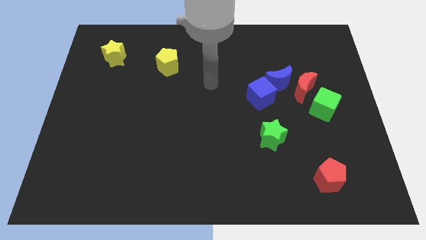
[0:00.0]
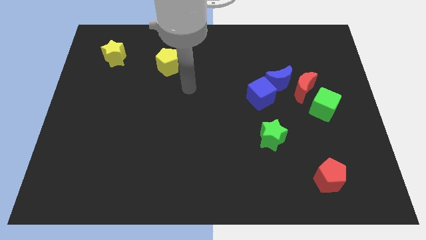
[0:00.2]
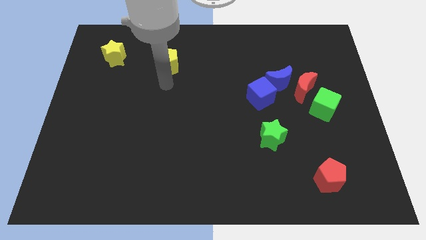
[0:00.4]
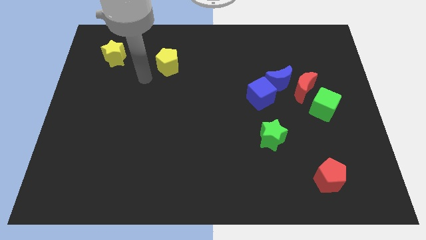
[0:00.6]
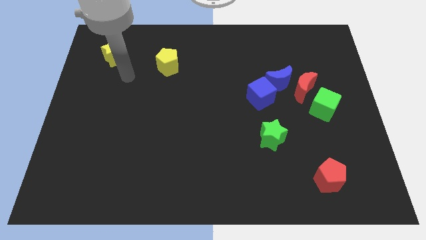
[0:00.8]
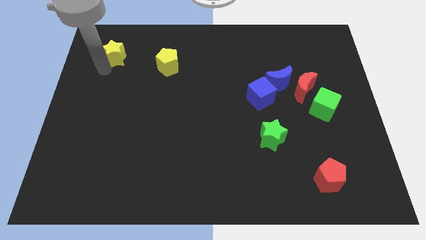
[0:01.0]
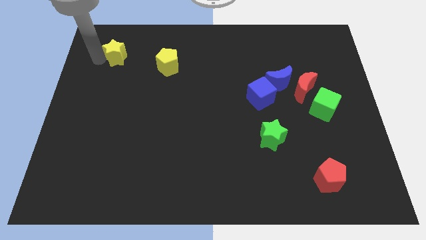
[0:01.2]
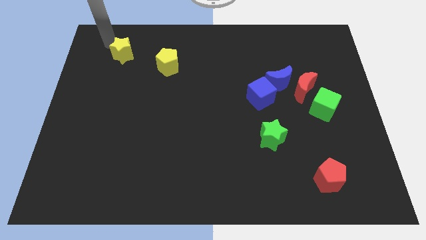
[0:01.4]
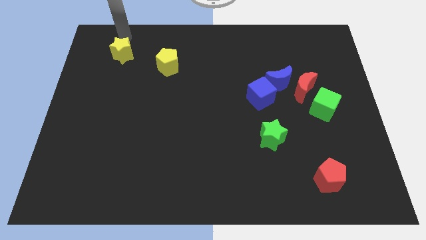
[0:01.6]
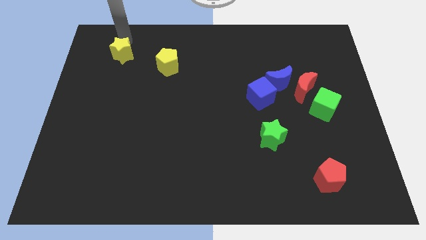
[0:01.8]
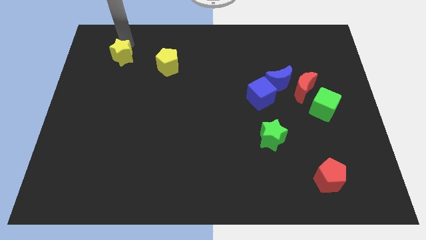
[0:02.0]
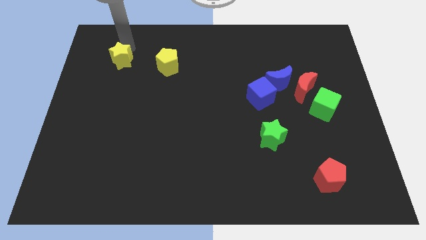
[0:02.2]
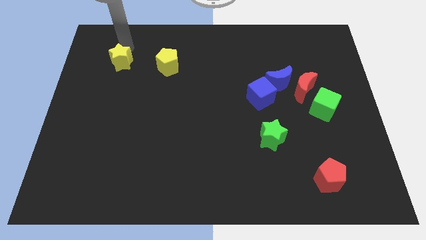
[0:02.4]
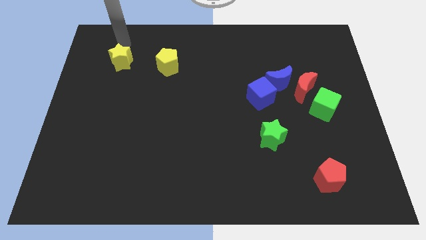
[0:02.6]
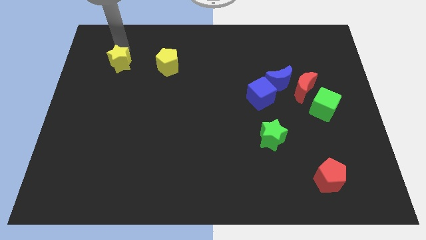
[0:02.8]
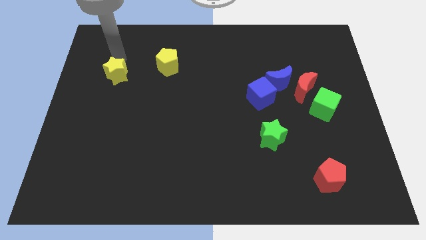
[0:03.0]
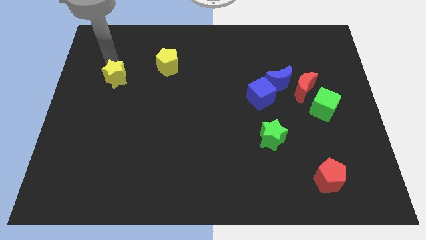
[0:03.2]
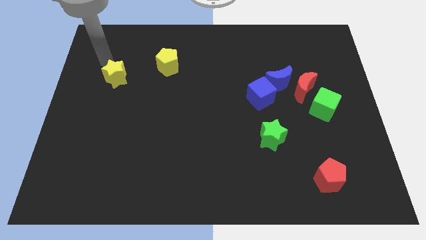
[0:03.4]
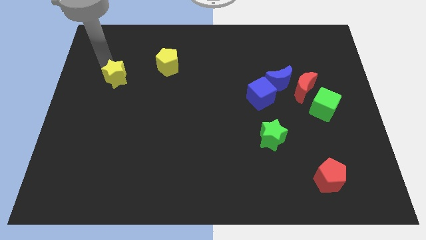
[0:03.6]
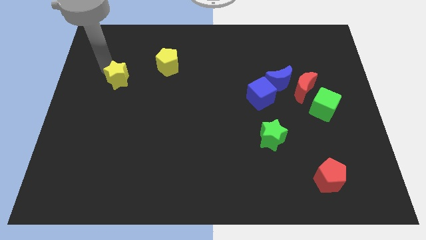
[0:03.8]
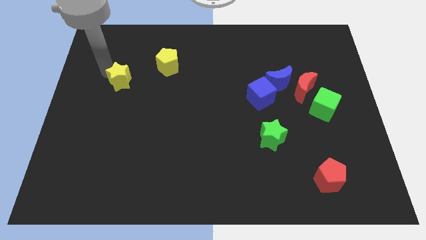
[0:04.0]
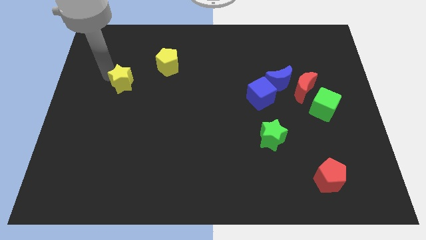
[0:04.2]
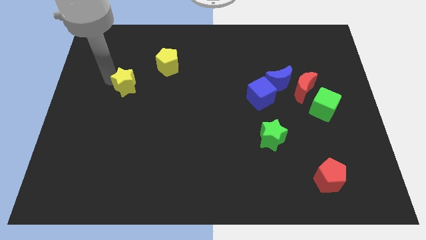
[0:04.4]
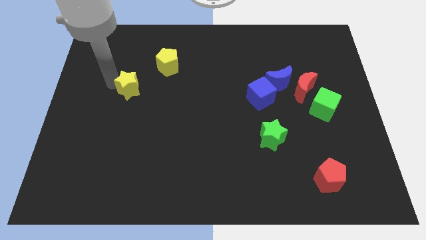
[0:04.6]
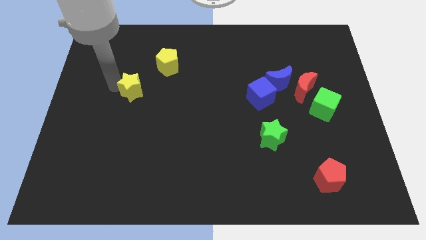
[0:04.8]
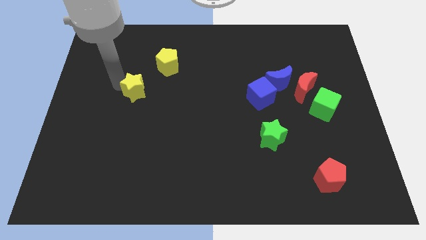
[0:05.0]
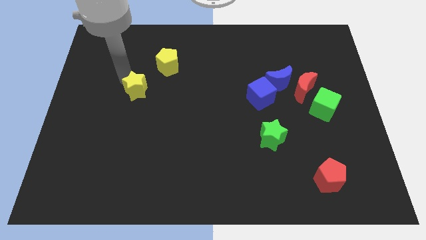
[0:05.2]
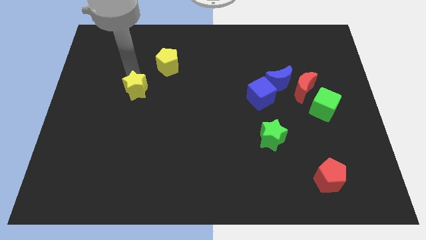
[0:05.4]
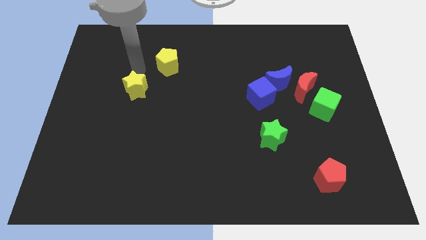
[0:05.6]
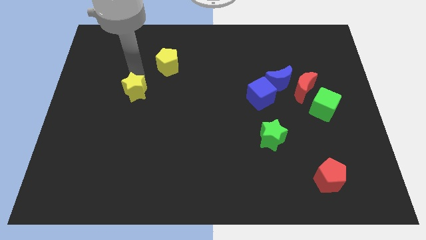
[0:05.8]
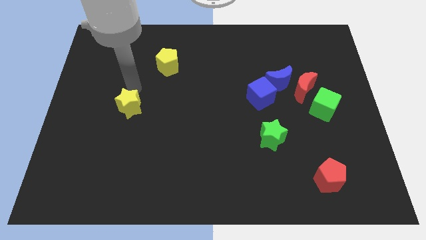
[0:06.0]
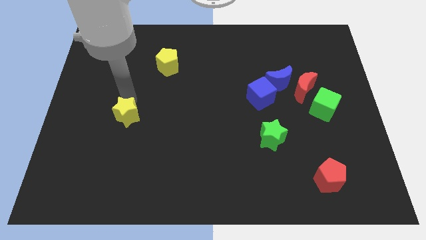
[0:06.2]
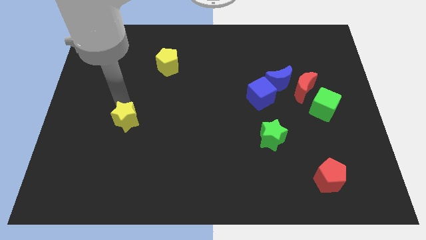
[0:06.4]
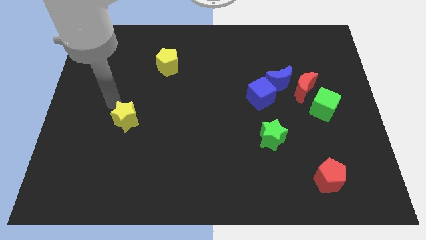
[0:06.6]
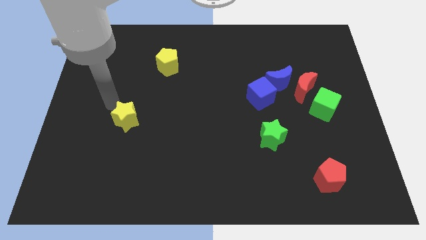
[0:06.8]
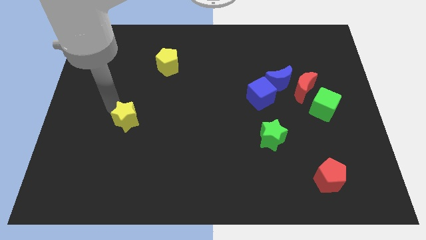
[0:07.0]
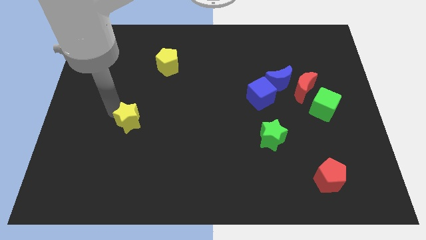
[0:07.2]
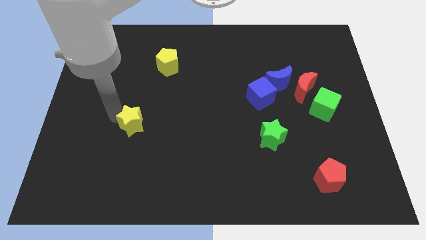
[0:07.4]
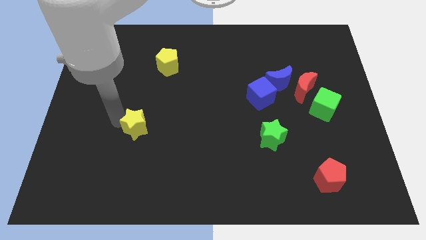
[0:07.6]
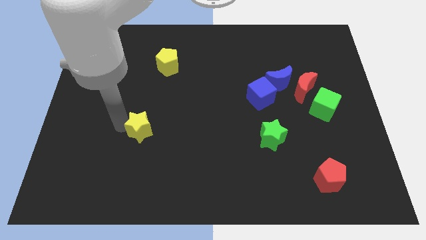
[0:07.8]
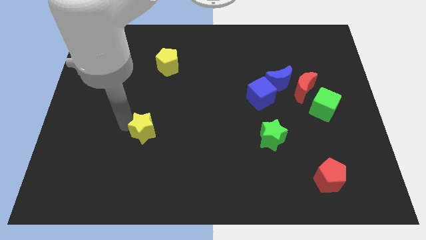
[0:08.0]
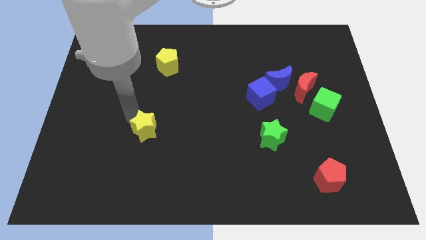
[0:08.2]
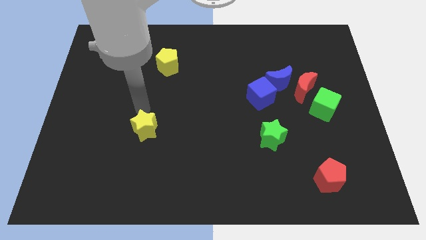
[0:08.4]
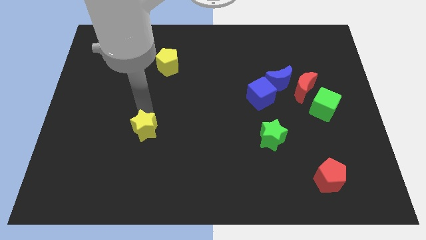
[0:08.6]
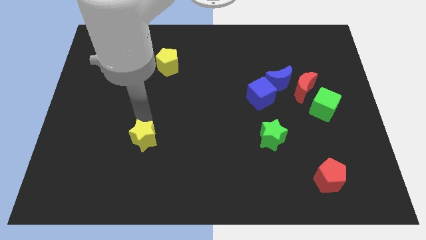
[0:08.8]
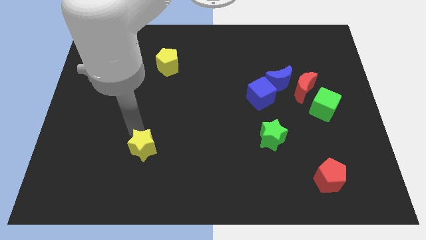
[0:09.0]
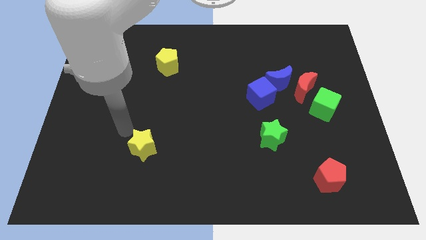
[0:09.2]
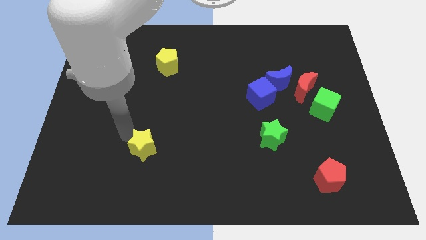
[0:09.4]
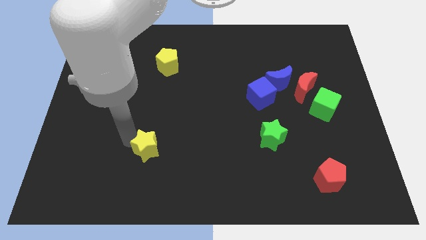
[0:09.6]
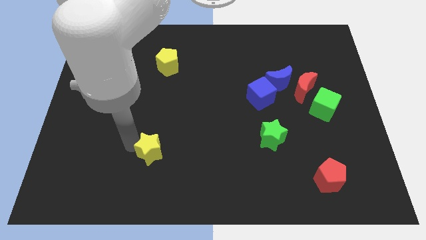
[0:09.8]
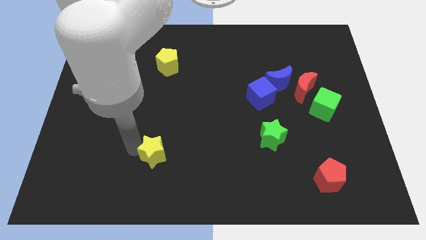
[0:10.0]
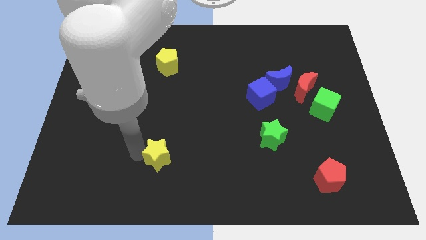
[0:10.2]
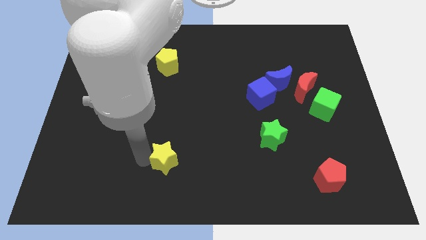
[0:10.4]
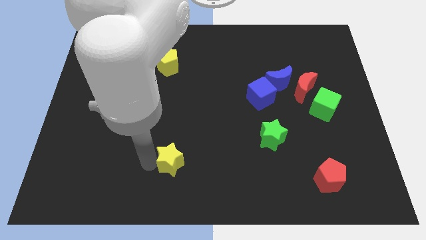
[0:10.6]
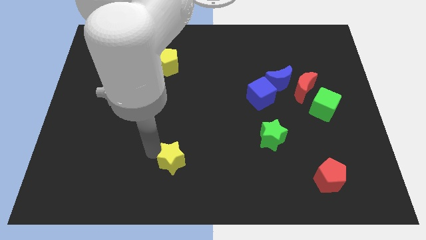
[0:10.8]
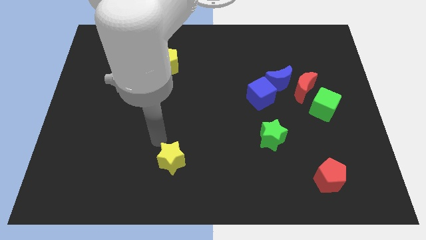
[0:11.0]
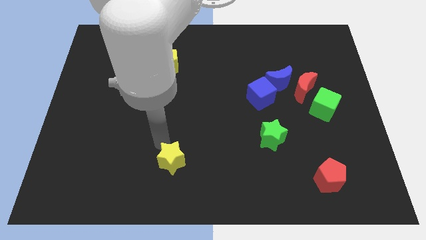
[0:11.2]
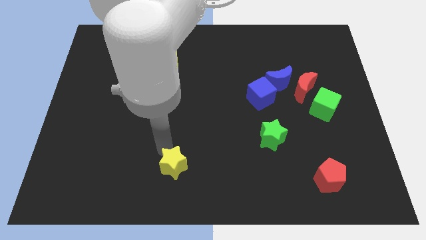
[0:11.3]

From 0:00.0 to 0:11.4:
slide the yellow star to the bottom side

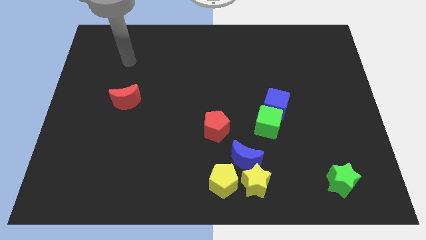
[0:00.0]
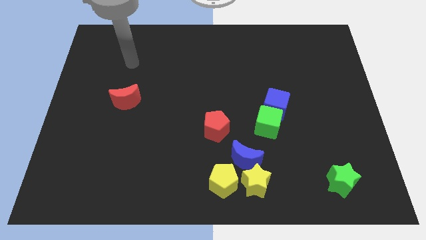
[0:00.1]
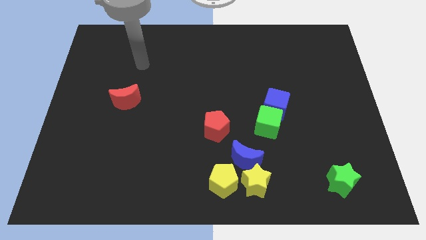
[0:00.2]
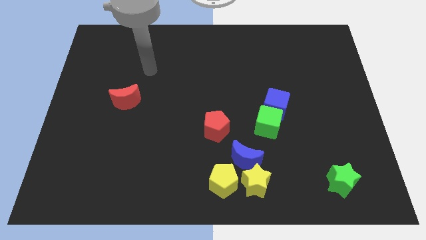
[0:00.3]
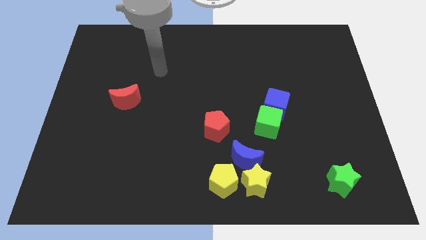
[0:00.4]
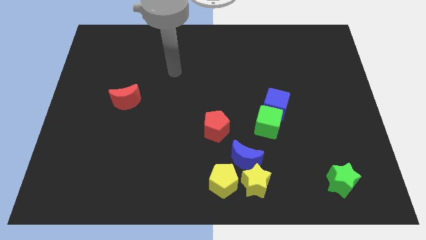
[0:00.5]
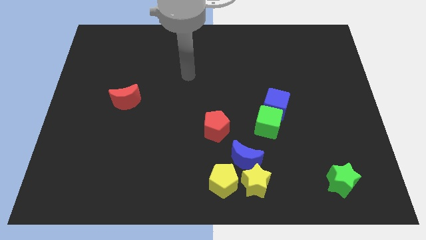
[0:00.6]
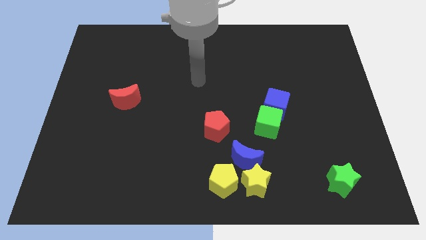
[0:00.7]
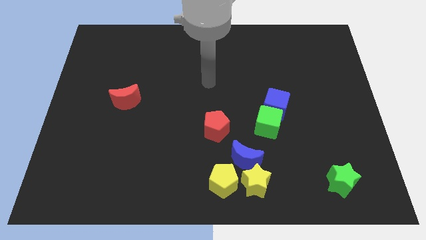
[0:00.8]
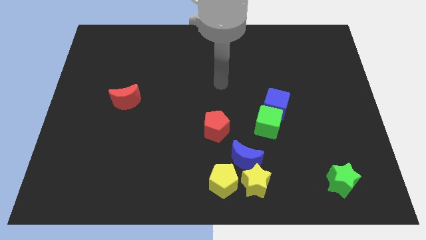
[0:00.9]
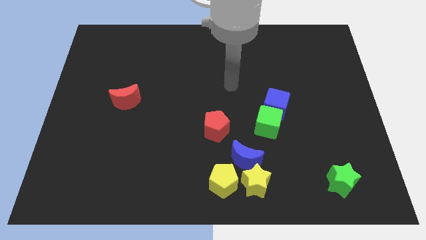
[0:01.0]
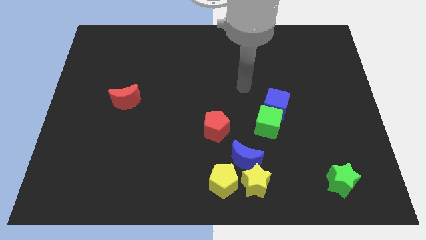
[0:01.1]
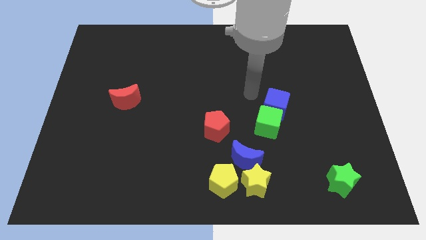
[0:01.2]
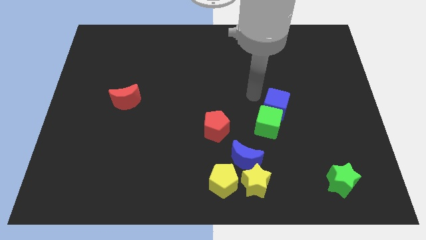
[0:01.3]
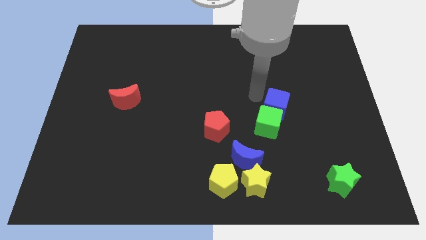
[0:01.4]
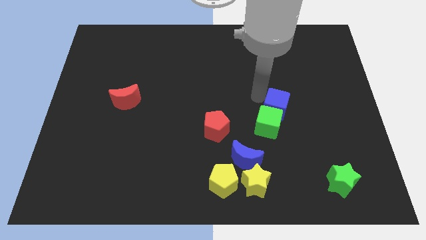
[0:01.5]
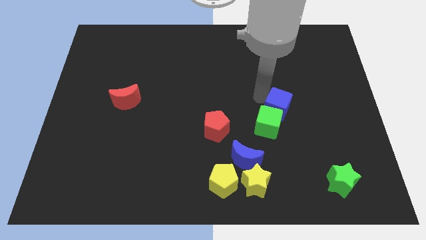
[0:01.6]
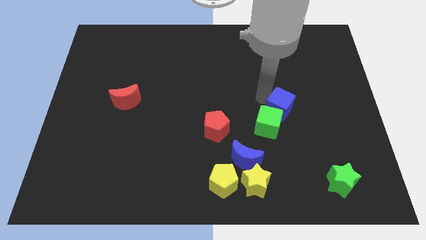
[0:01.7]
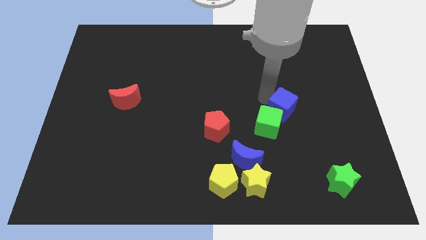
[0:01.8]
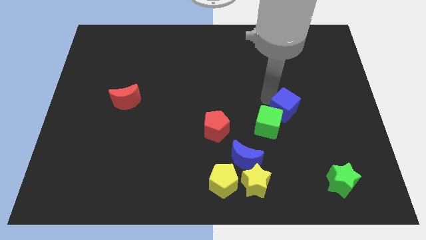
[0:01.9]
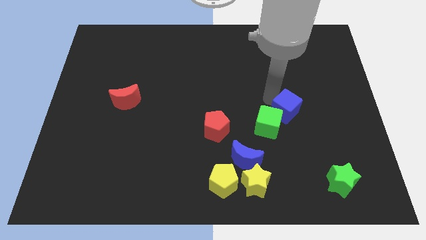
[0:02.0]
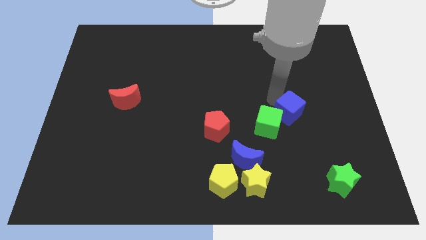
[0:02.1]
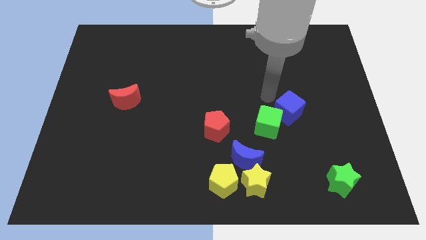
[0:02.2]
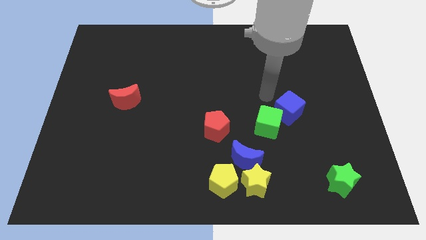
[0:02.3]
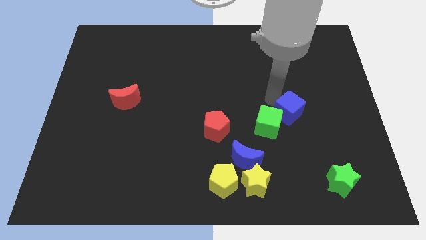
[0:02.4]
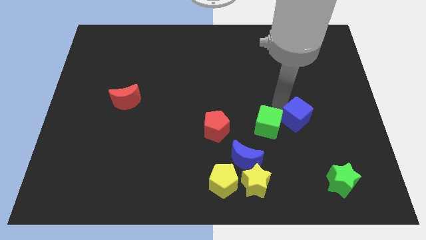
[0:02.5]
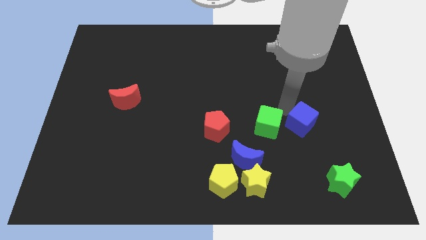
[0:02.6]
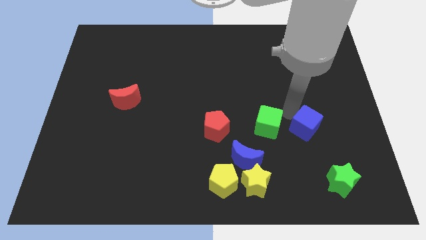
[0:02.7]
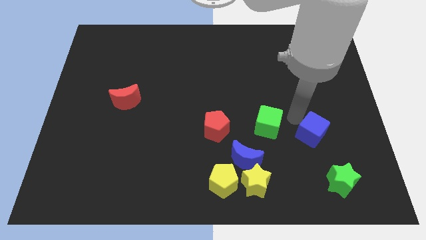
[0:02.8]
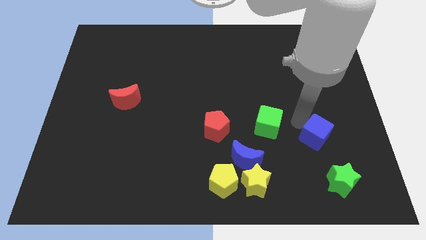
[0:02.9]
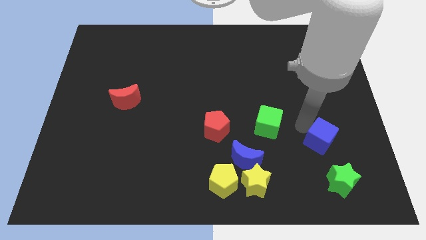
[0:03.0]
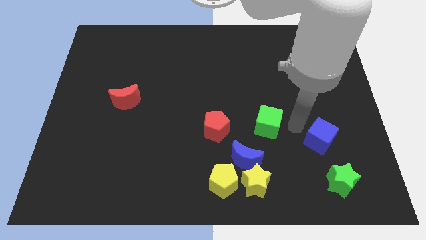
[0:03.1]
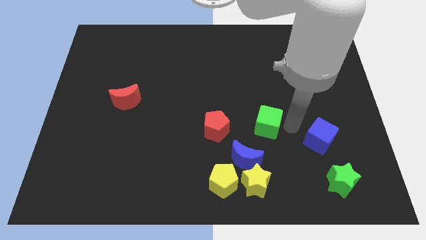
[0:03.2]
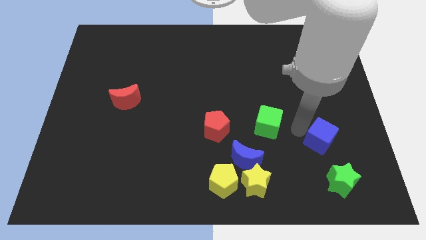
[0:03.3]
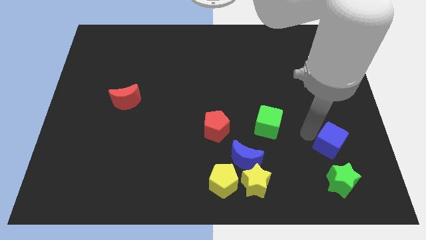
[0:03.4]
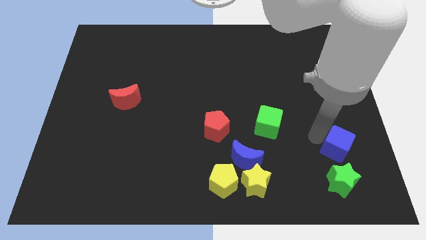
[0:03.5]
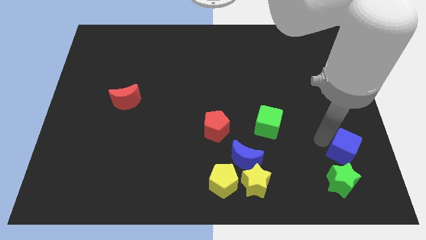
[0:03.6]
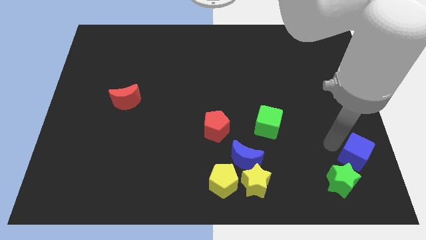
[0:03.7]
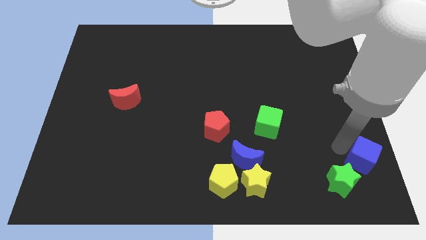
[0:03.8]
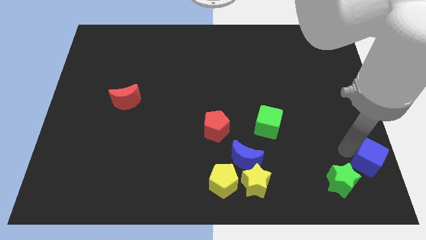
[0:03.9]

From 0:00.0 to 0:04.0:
slide the blue cube to the lower right corner
